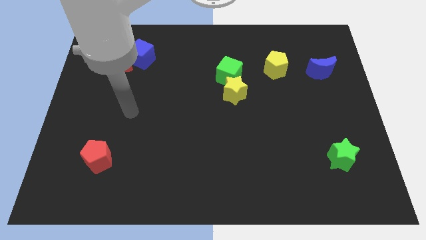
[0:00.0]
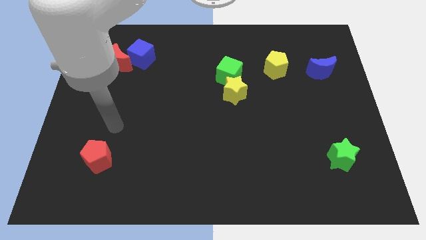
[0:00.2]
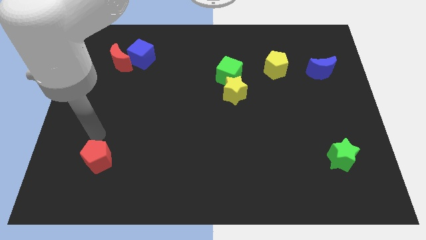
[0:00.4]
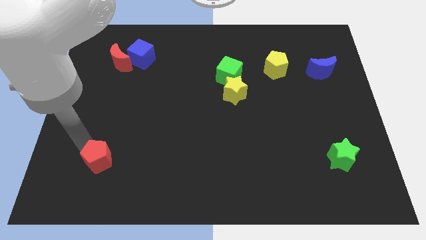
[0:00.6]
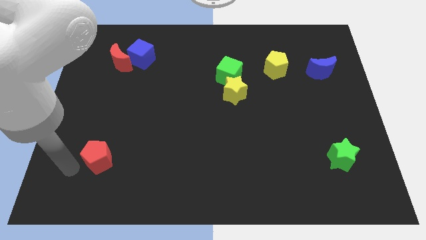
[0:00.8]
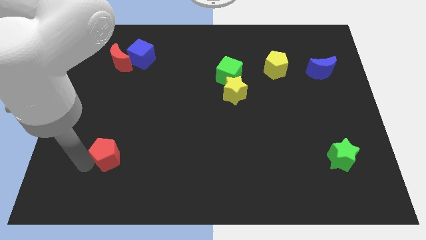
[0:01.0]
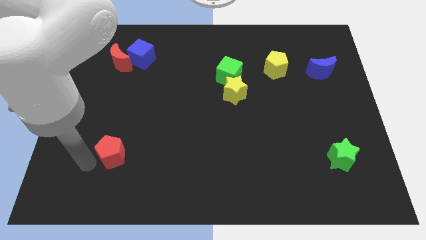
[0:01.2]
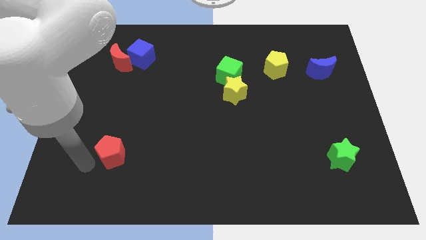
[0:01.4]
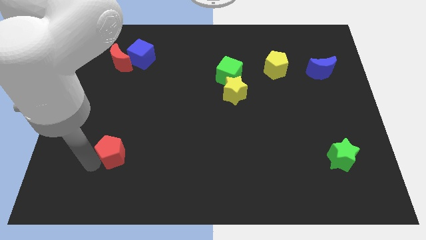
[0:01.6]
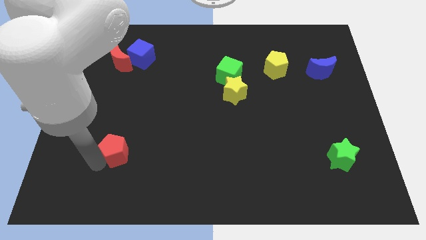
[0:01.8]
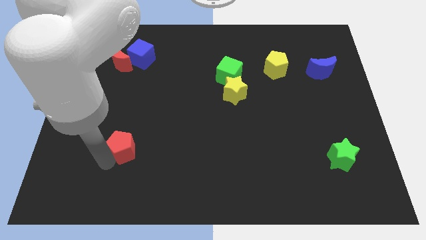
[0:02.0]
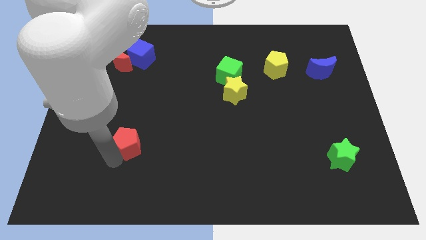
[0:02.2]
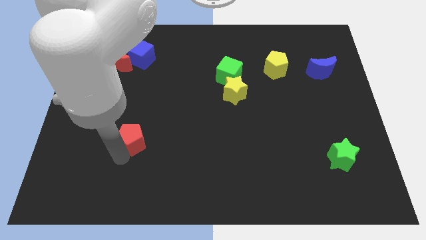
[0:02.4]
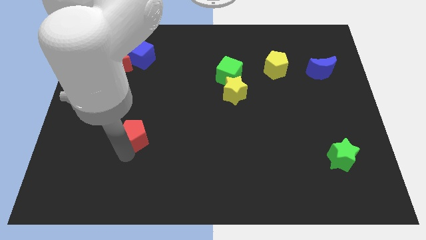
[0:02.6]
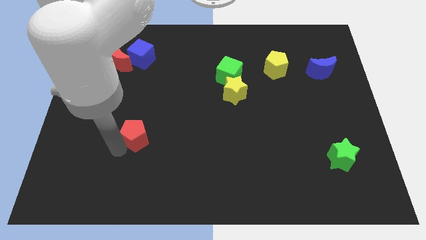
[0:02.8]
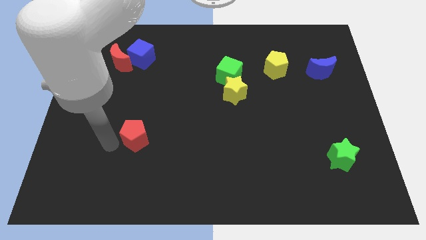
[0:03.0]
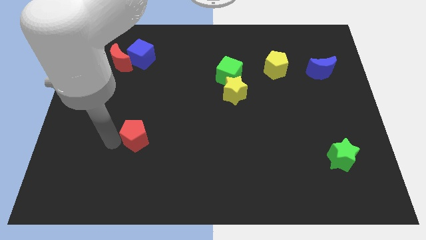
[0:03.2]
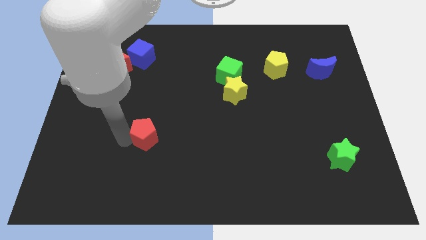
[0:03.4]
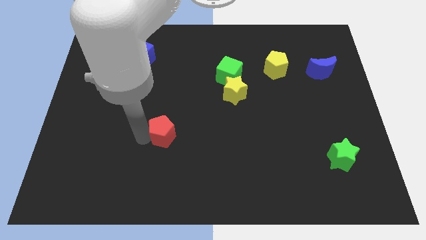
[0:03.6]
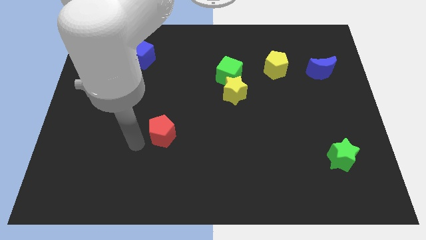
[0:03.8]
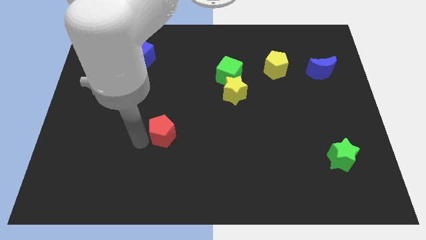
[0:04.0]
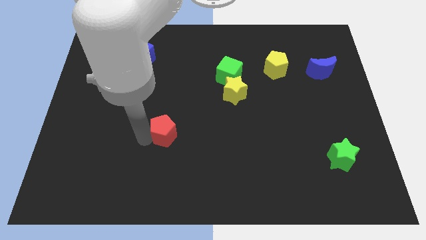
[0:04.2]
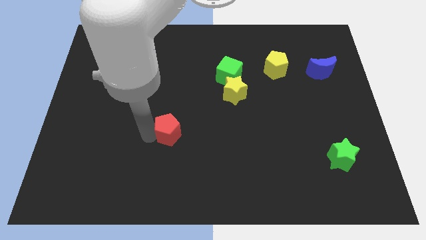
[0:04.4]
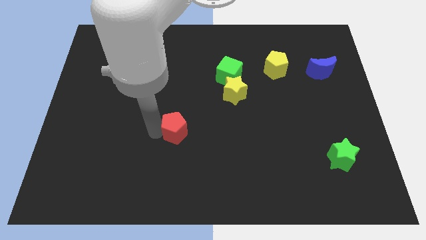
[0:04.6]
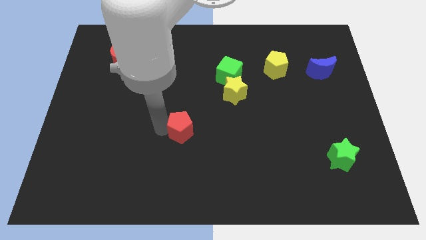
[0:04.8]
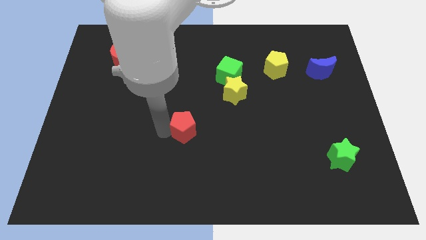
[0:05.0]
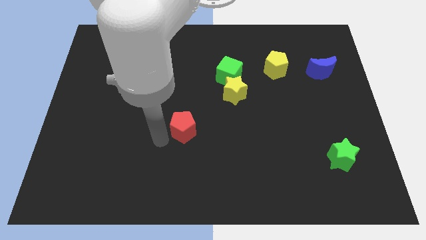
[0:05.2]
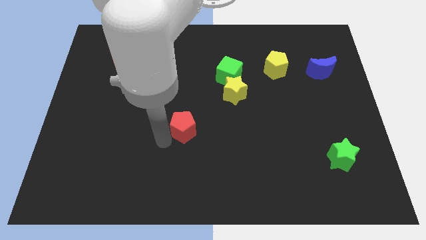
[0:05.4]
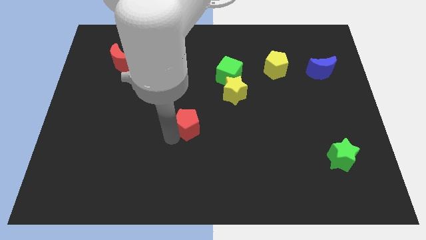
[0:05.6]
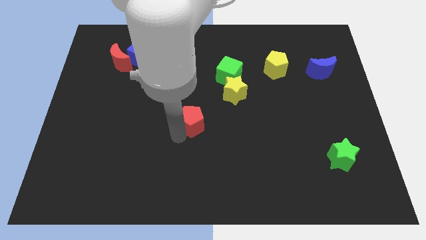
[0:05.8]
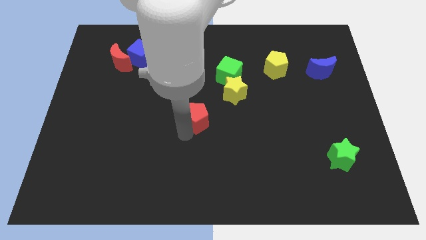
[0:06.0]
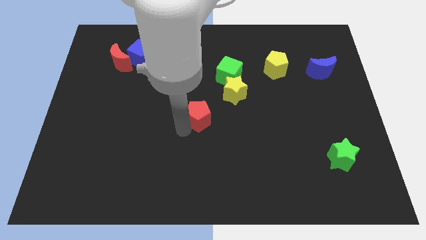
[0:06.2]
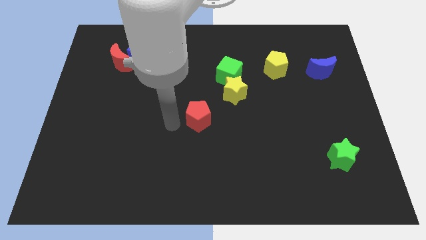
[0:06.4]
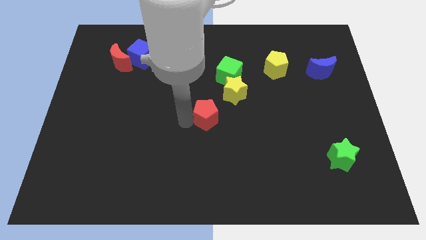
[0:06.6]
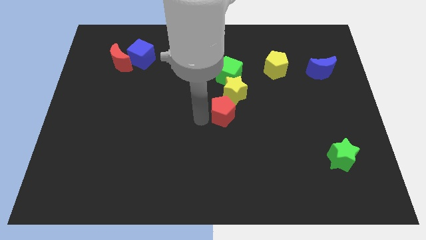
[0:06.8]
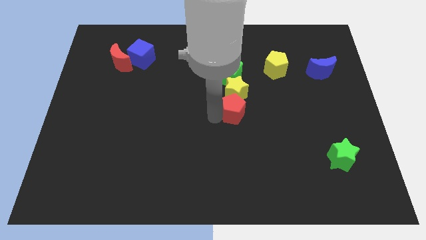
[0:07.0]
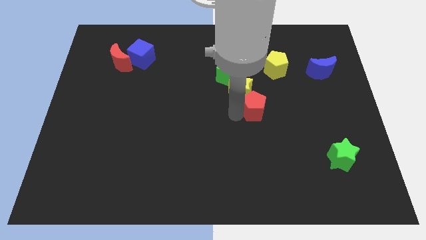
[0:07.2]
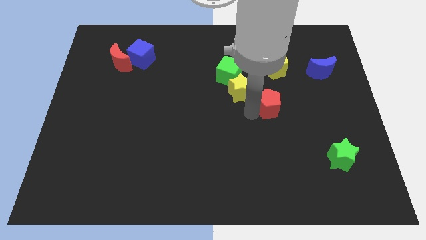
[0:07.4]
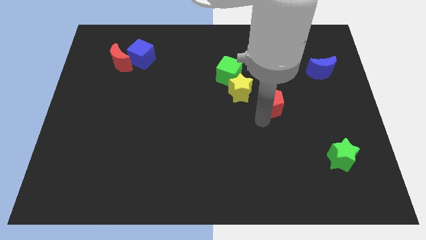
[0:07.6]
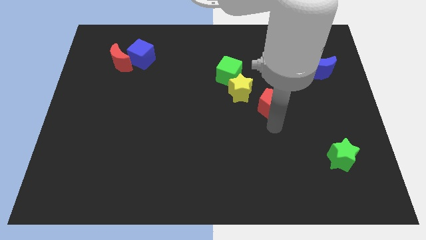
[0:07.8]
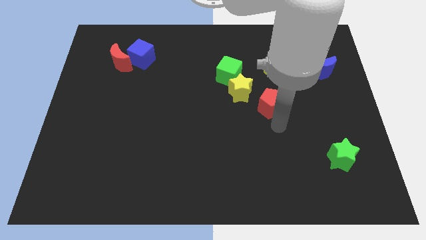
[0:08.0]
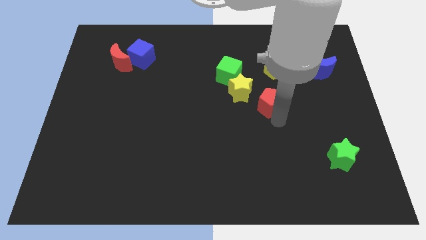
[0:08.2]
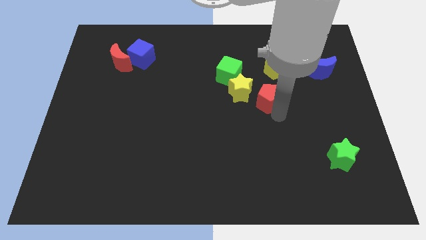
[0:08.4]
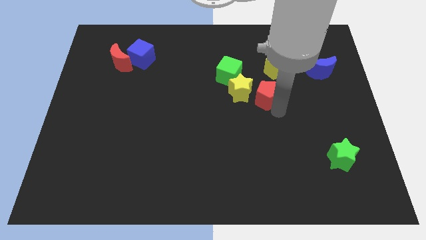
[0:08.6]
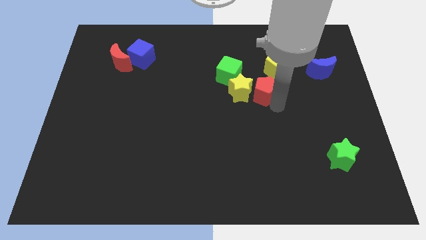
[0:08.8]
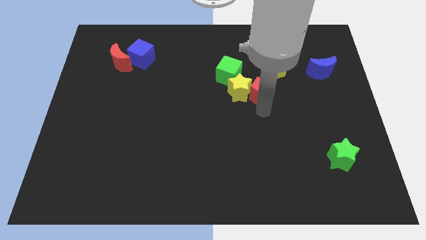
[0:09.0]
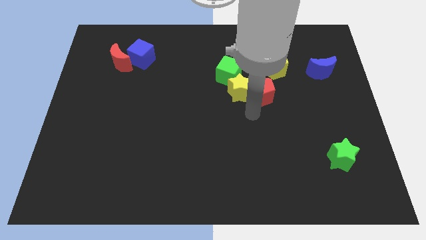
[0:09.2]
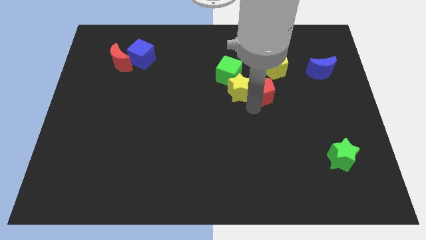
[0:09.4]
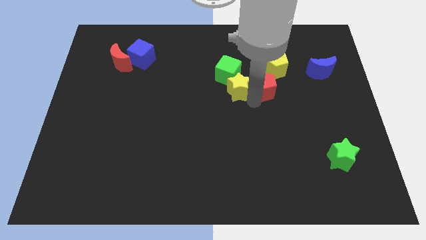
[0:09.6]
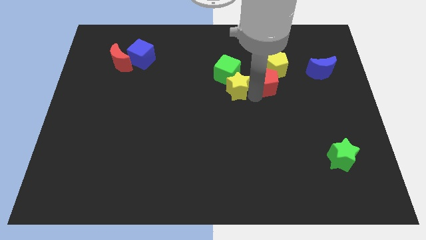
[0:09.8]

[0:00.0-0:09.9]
slide the red pentagon to the yellow pentagon

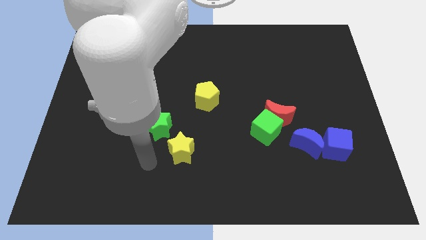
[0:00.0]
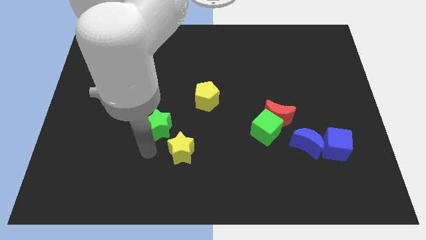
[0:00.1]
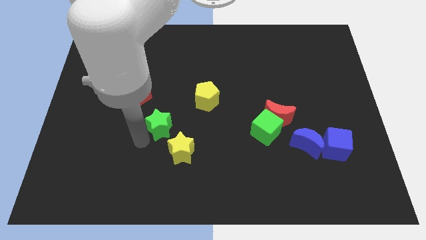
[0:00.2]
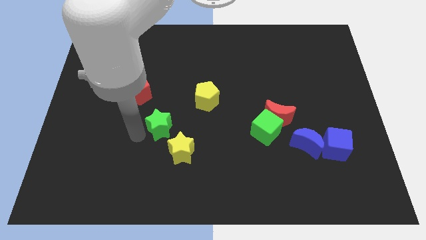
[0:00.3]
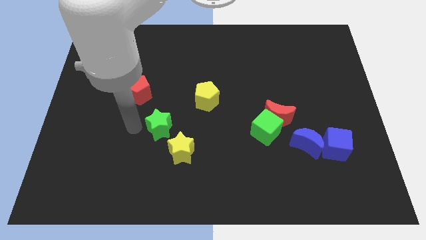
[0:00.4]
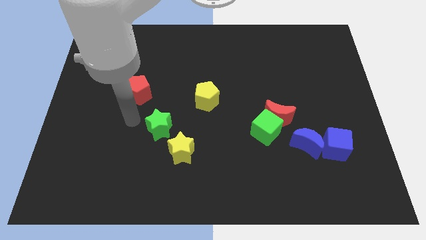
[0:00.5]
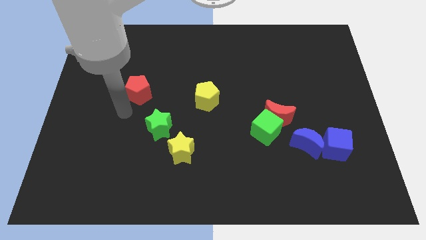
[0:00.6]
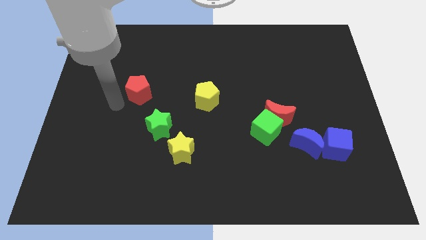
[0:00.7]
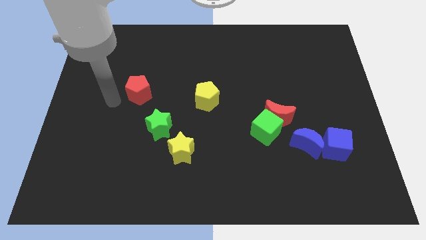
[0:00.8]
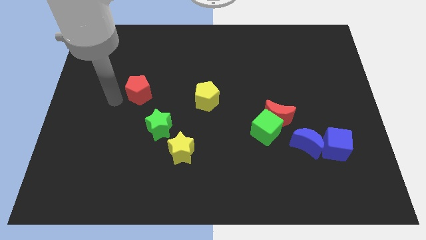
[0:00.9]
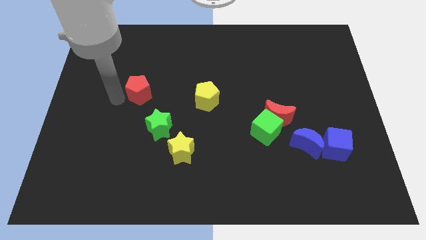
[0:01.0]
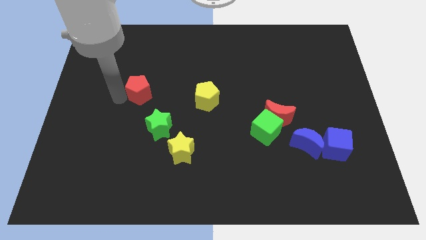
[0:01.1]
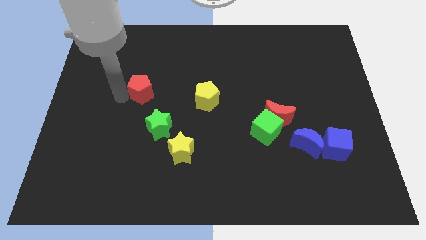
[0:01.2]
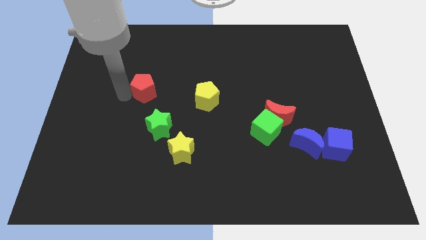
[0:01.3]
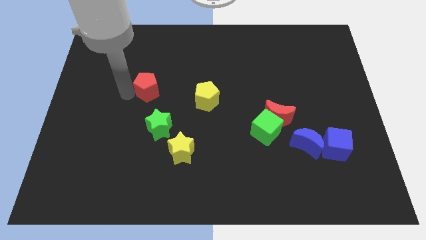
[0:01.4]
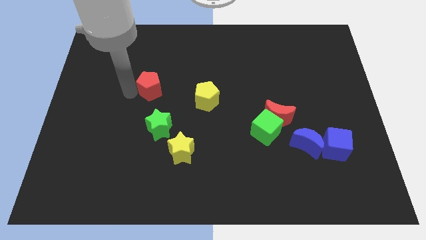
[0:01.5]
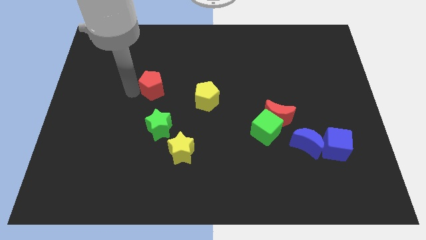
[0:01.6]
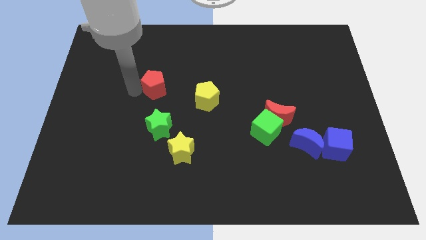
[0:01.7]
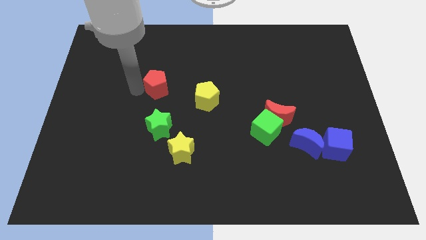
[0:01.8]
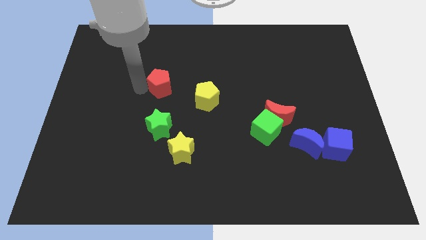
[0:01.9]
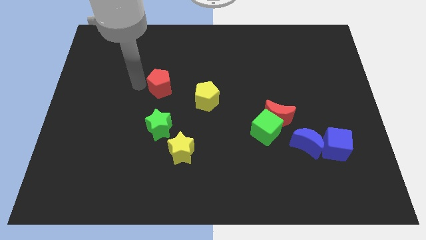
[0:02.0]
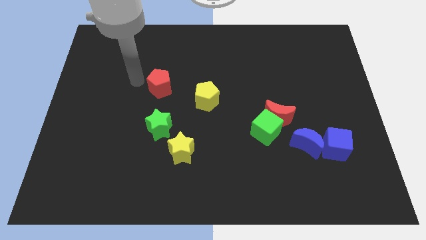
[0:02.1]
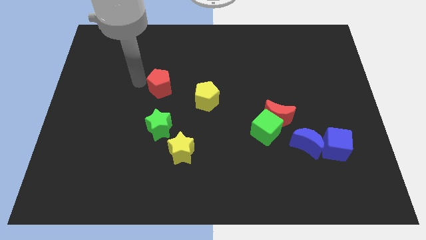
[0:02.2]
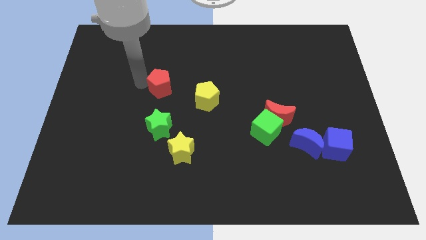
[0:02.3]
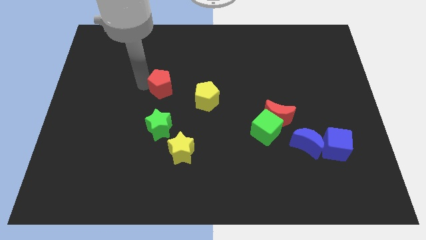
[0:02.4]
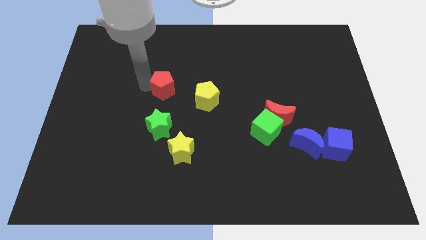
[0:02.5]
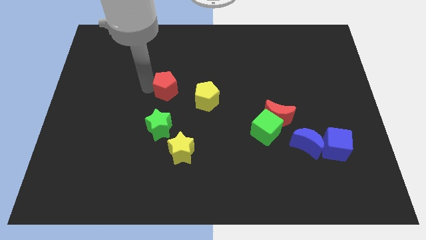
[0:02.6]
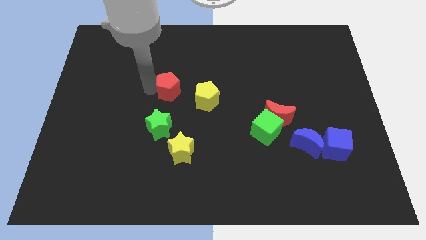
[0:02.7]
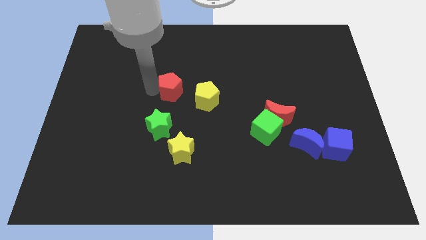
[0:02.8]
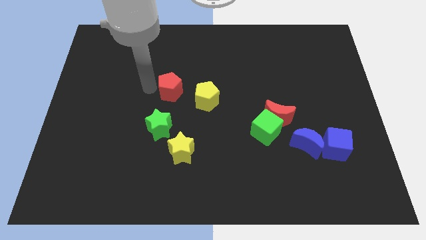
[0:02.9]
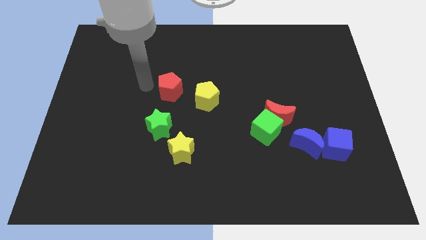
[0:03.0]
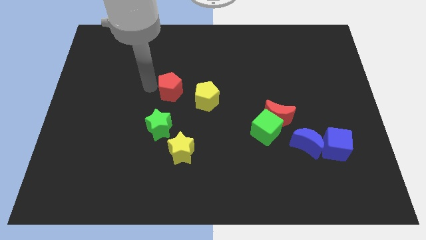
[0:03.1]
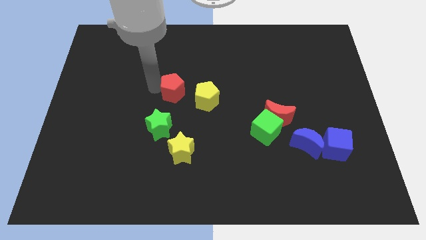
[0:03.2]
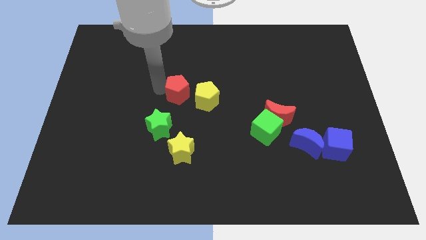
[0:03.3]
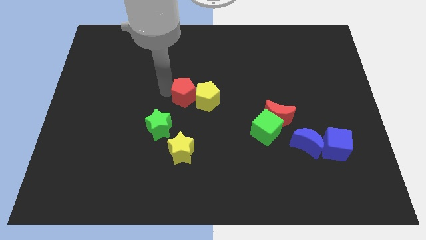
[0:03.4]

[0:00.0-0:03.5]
slide the red pentagon towards the yellow pentagon
